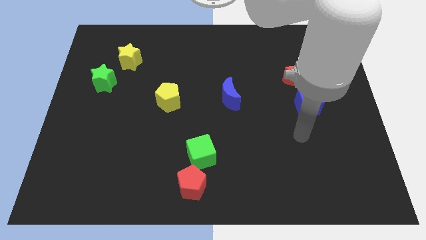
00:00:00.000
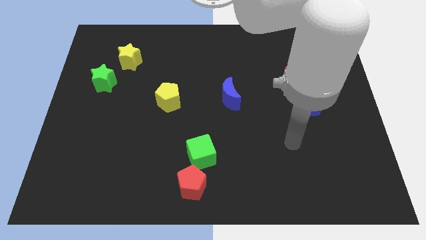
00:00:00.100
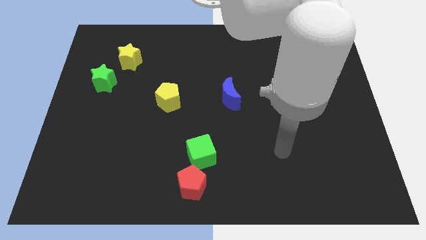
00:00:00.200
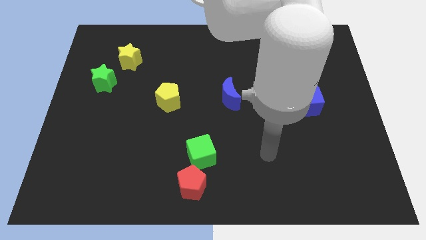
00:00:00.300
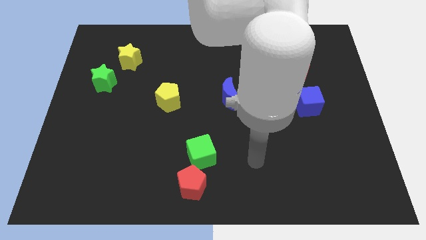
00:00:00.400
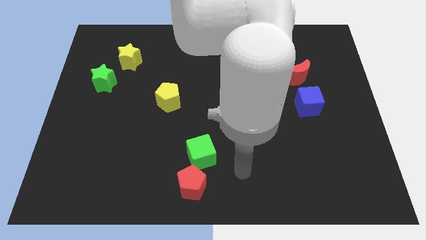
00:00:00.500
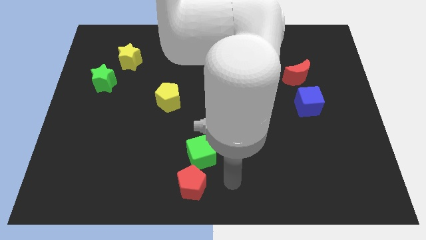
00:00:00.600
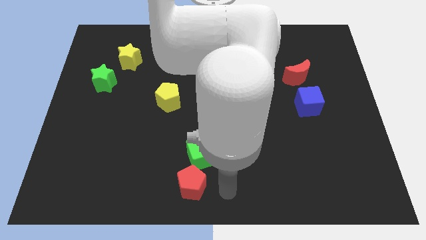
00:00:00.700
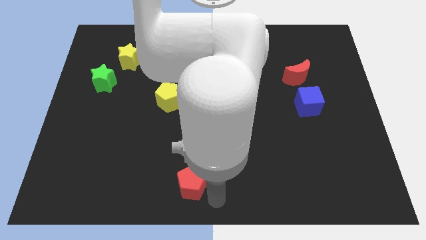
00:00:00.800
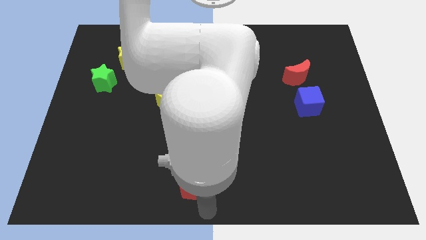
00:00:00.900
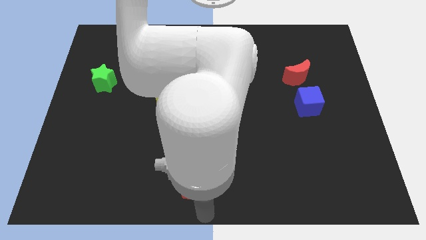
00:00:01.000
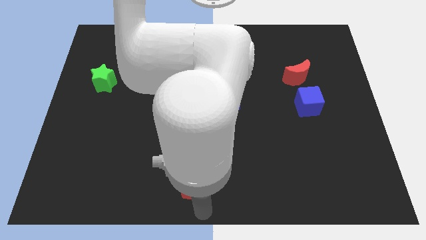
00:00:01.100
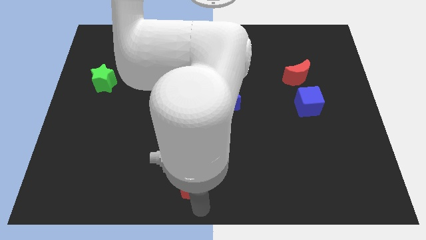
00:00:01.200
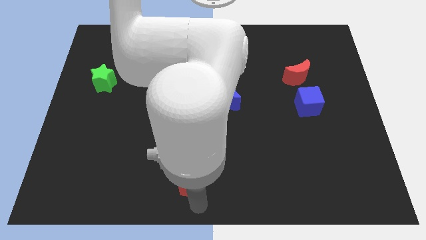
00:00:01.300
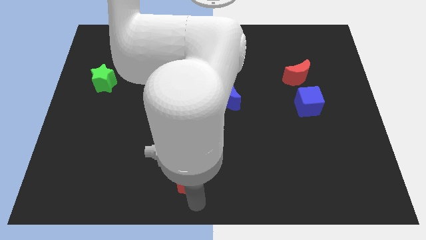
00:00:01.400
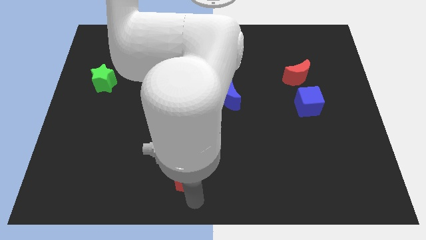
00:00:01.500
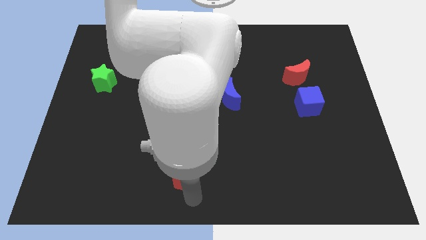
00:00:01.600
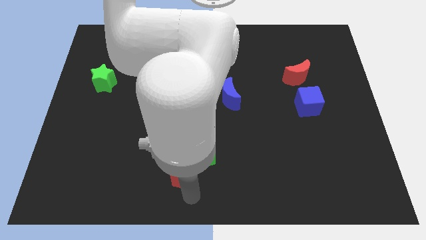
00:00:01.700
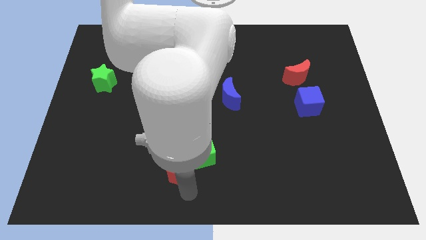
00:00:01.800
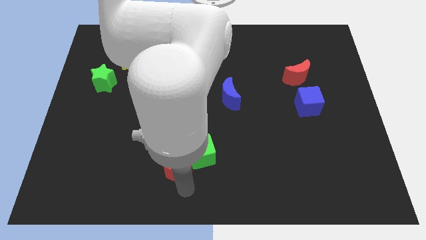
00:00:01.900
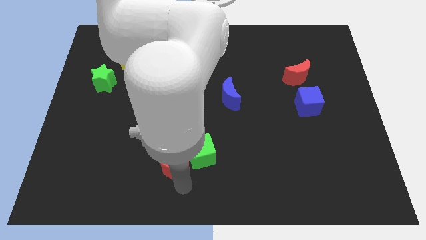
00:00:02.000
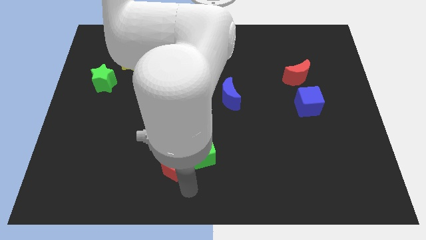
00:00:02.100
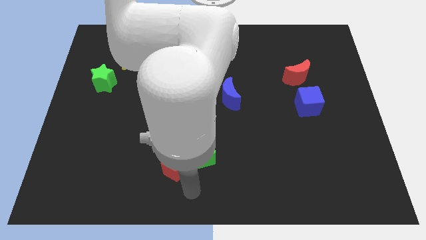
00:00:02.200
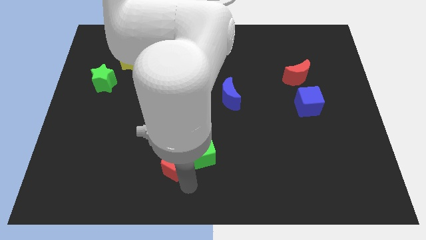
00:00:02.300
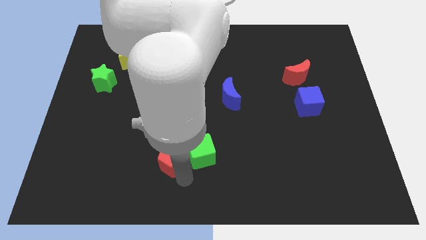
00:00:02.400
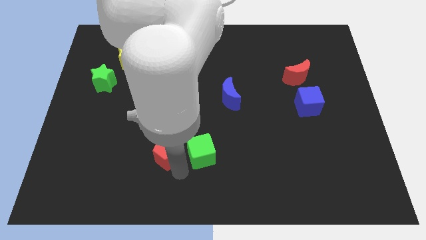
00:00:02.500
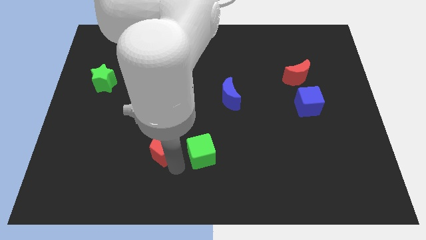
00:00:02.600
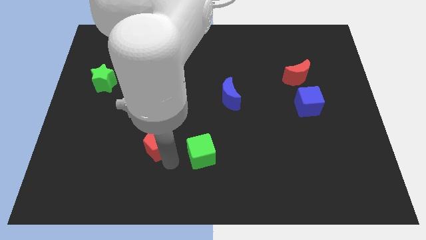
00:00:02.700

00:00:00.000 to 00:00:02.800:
slightly slide the red pentagon upwards

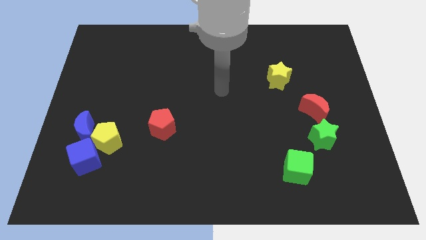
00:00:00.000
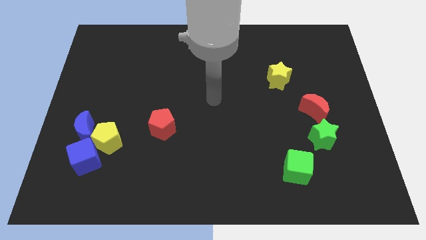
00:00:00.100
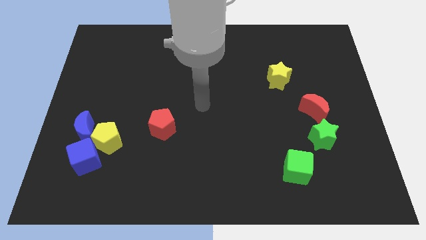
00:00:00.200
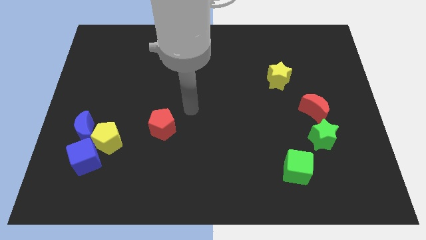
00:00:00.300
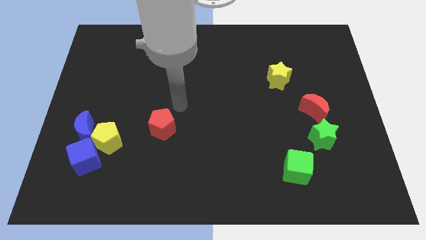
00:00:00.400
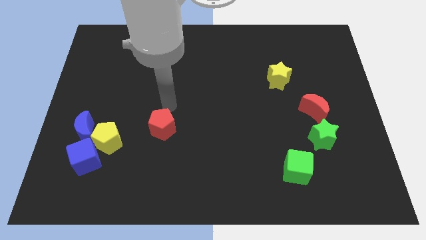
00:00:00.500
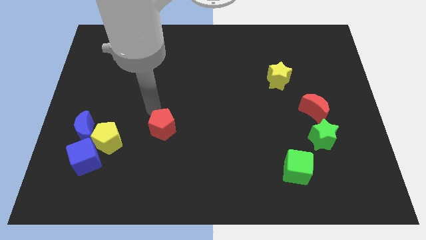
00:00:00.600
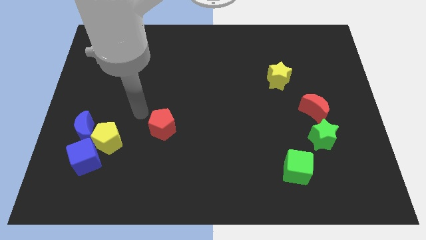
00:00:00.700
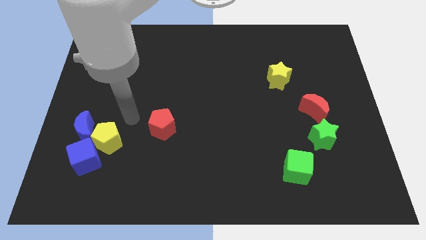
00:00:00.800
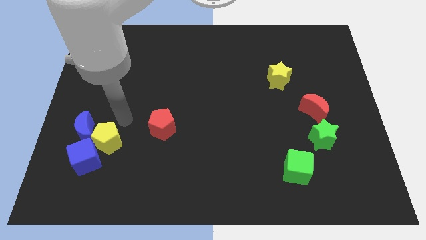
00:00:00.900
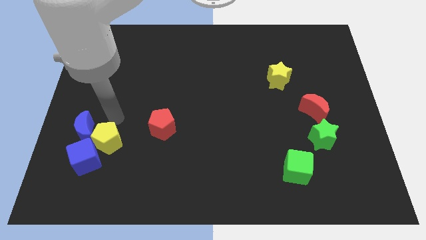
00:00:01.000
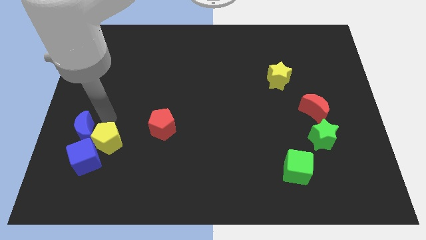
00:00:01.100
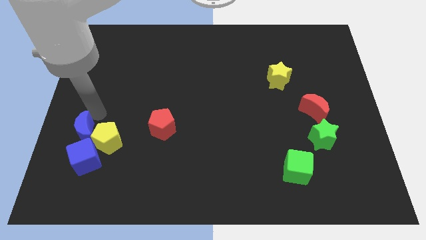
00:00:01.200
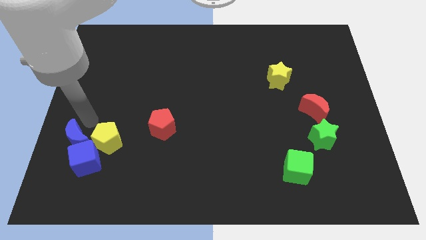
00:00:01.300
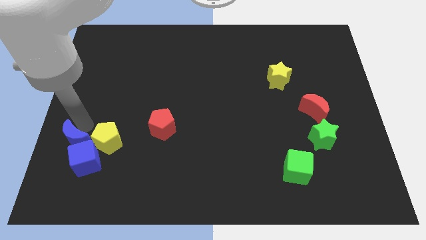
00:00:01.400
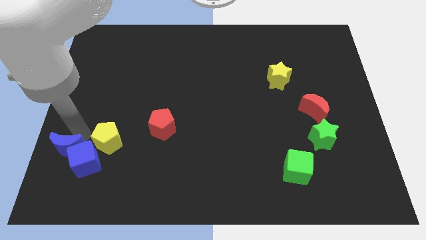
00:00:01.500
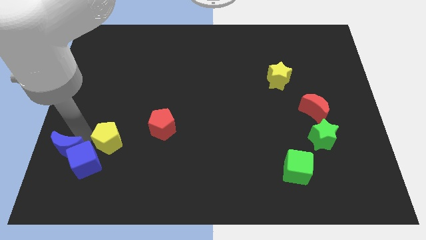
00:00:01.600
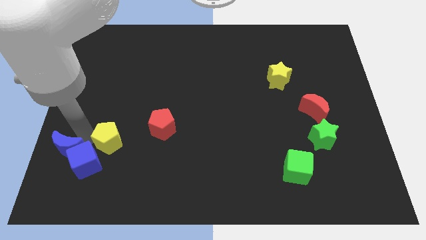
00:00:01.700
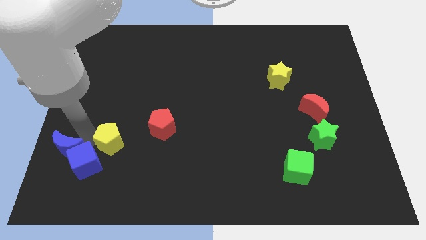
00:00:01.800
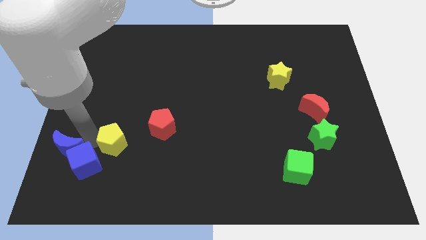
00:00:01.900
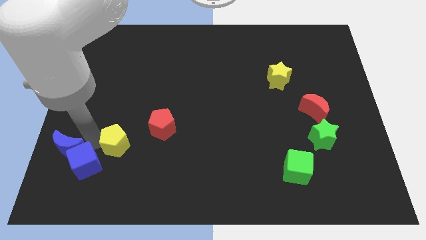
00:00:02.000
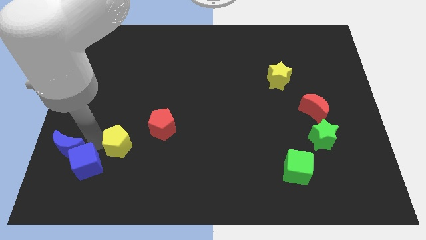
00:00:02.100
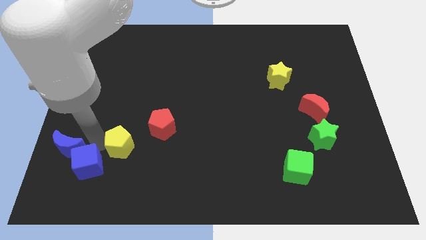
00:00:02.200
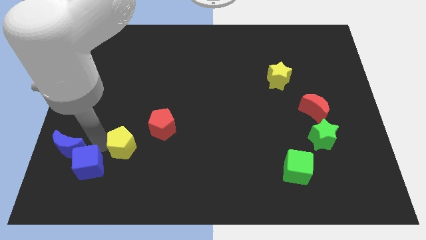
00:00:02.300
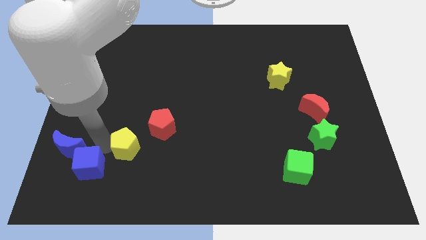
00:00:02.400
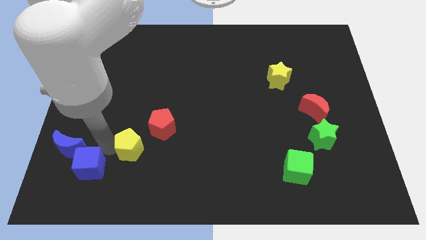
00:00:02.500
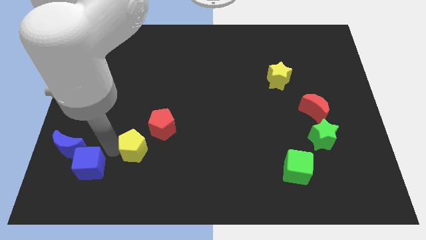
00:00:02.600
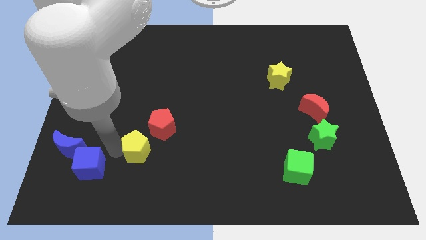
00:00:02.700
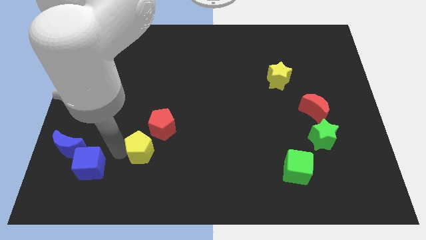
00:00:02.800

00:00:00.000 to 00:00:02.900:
move the yellow pentagon to the right a little bit

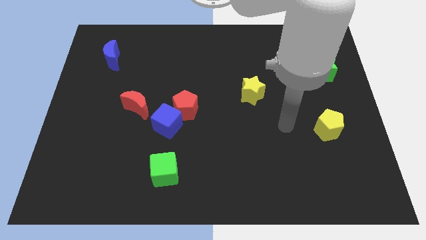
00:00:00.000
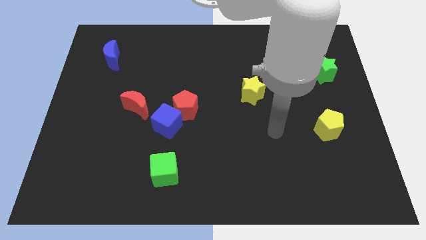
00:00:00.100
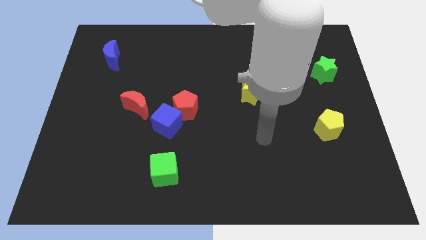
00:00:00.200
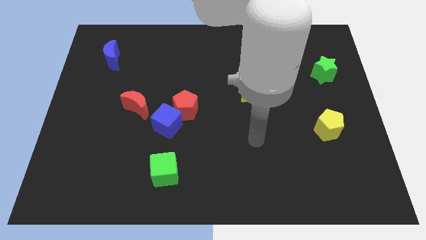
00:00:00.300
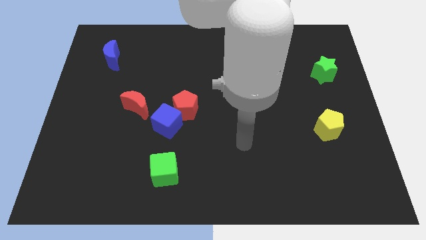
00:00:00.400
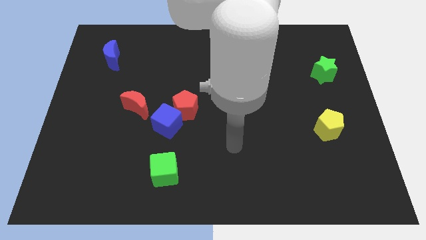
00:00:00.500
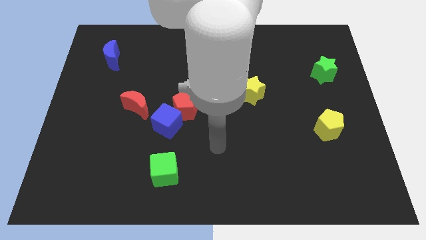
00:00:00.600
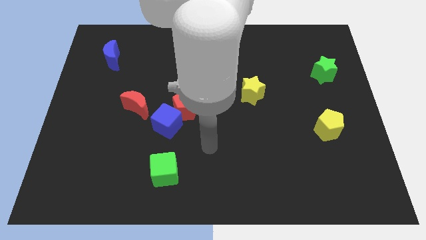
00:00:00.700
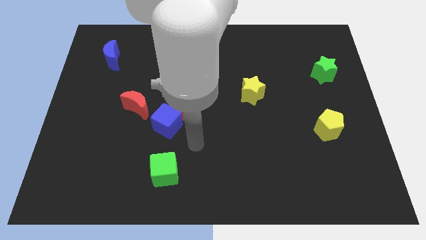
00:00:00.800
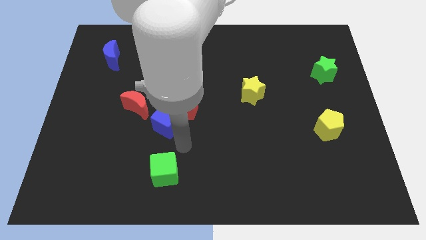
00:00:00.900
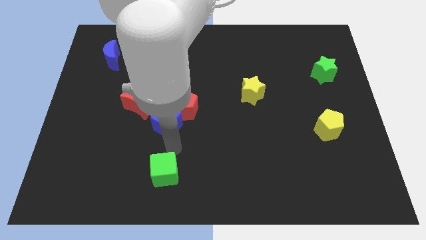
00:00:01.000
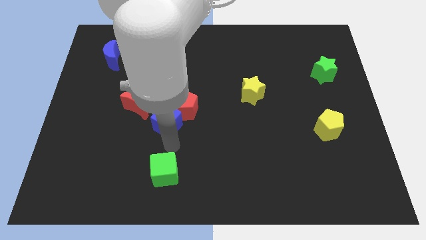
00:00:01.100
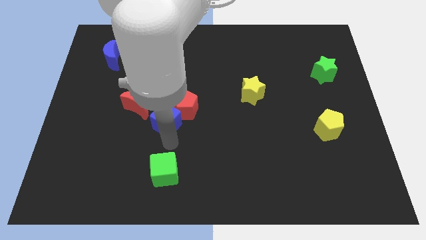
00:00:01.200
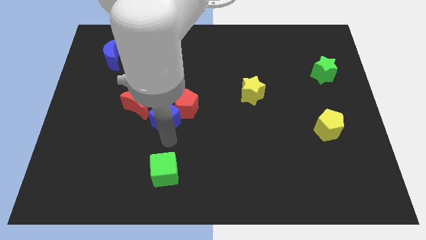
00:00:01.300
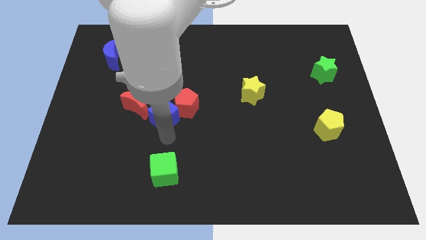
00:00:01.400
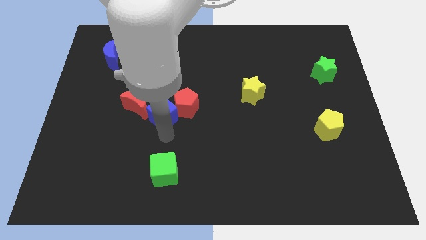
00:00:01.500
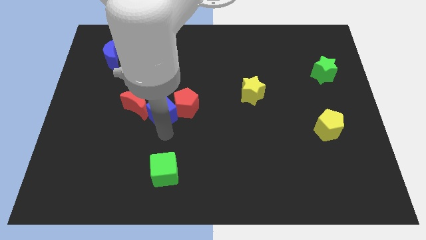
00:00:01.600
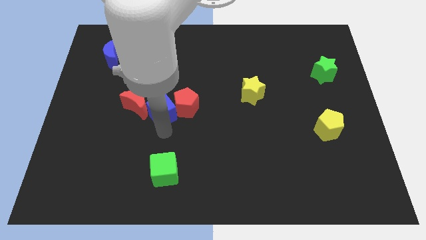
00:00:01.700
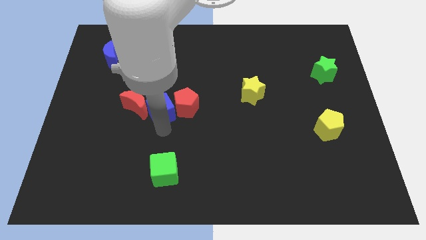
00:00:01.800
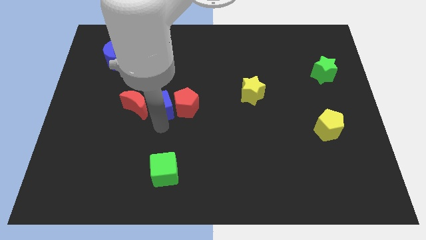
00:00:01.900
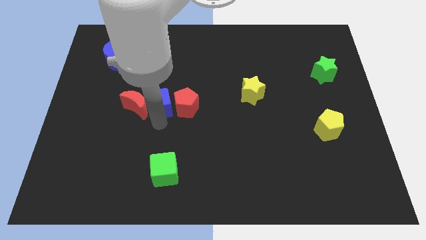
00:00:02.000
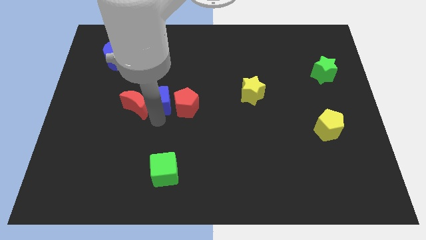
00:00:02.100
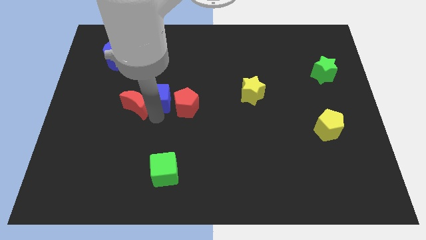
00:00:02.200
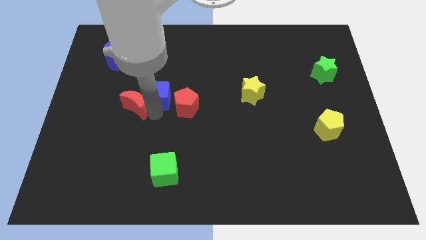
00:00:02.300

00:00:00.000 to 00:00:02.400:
push the blue cube upwards a little bit
